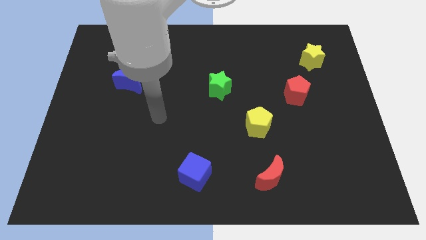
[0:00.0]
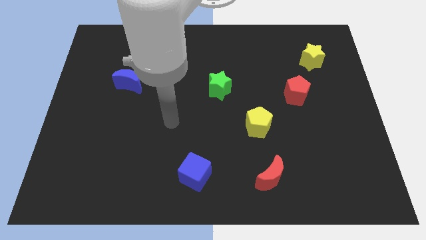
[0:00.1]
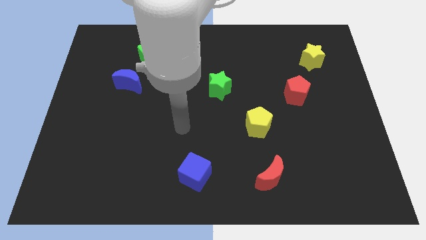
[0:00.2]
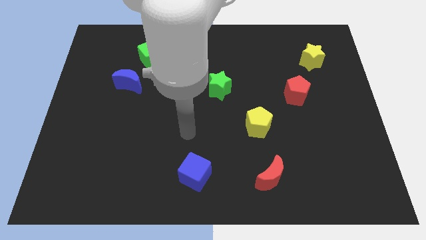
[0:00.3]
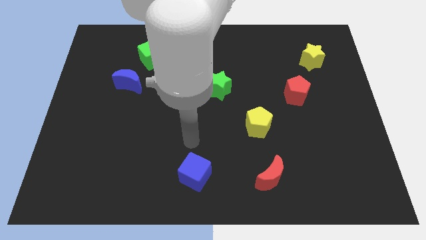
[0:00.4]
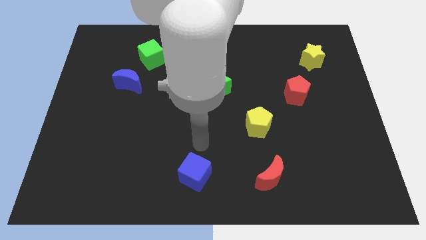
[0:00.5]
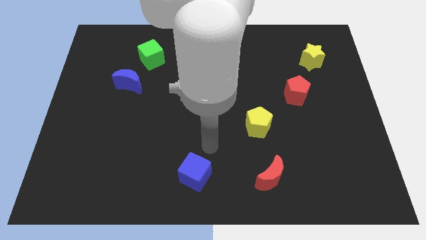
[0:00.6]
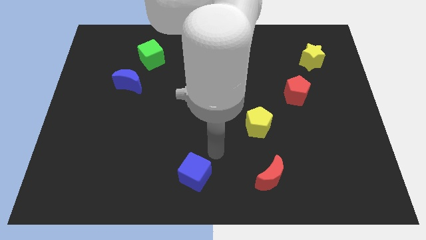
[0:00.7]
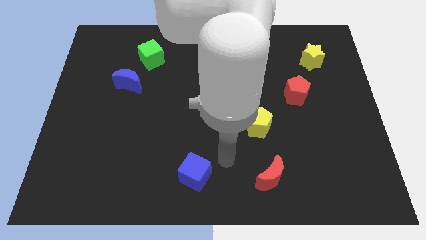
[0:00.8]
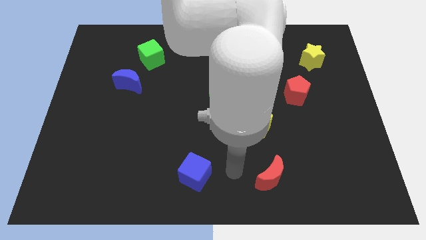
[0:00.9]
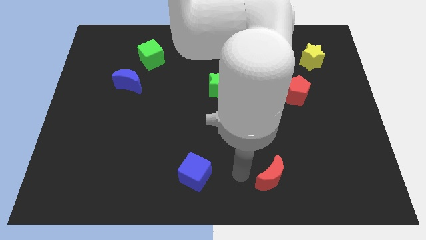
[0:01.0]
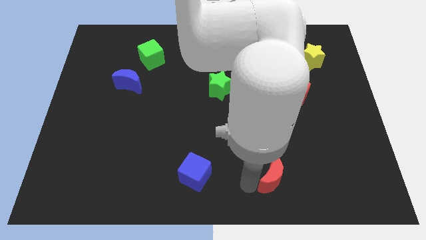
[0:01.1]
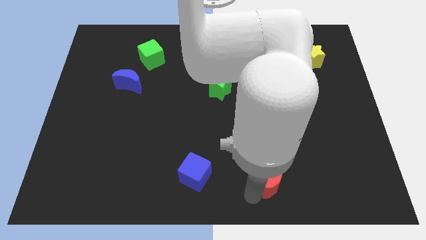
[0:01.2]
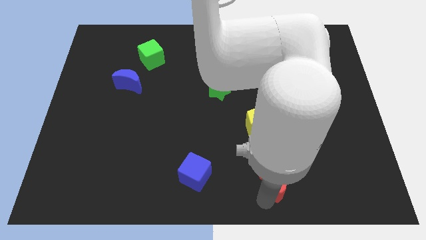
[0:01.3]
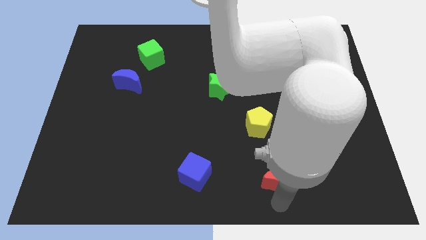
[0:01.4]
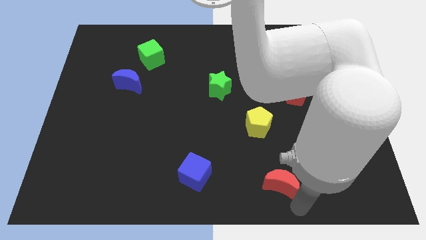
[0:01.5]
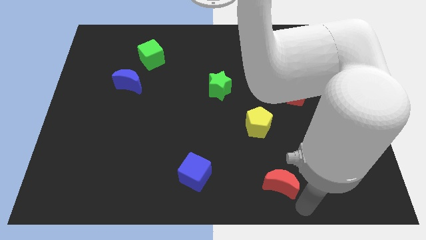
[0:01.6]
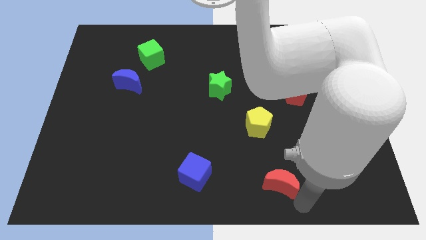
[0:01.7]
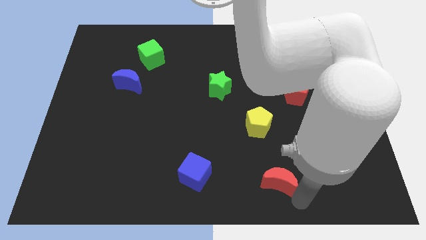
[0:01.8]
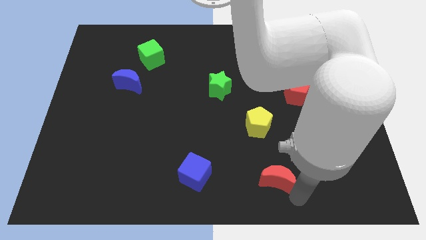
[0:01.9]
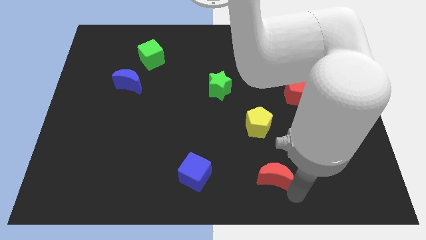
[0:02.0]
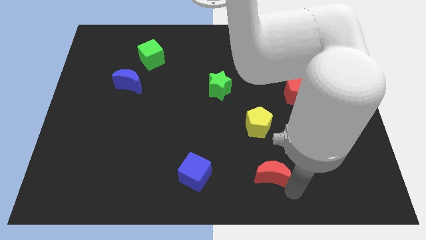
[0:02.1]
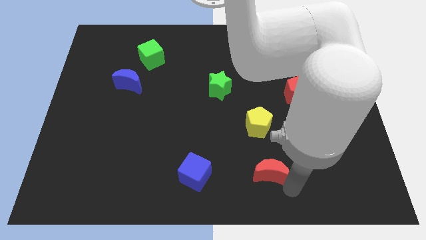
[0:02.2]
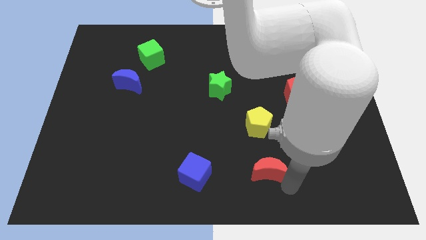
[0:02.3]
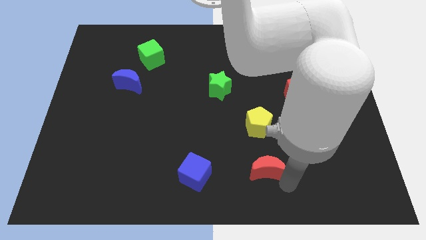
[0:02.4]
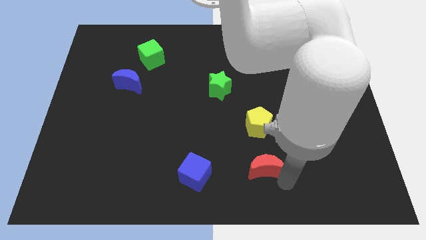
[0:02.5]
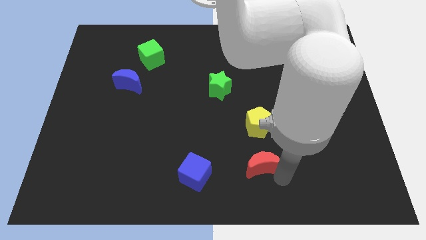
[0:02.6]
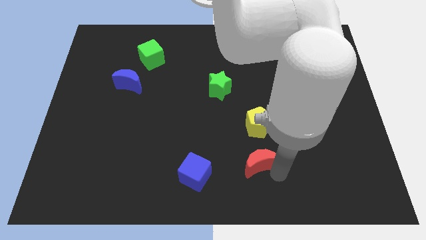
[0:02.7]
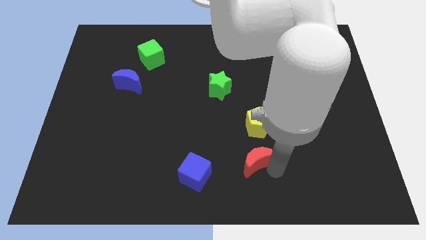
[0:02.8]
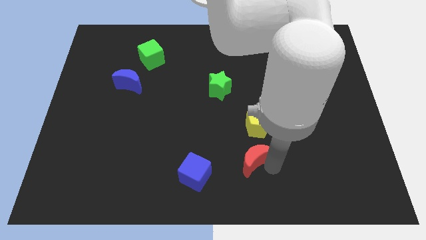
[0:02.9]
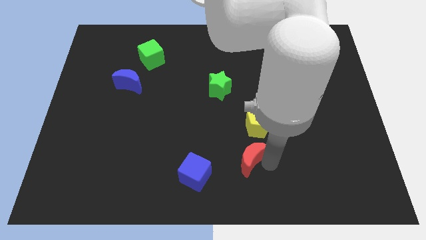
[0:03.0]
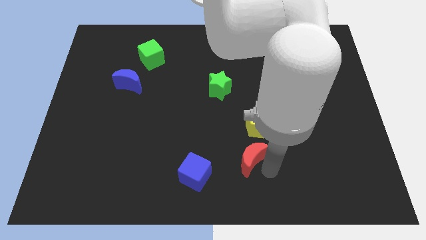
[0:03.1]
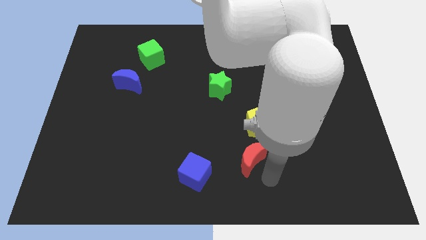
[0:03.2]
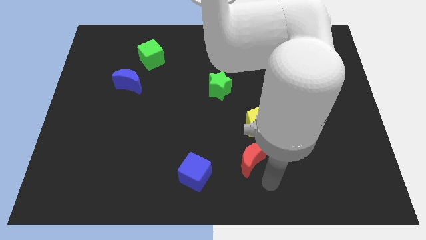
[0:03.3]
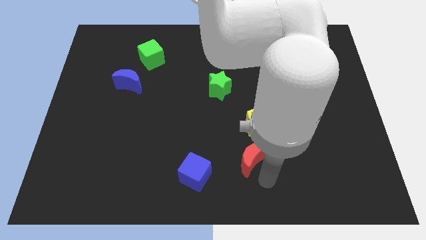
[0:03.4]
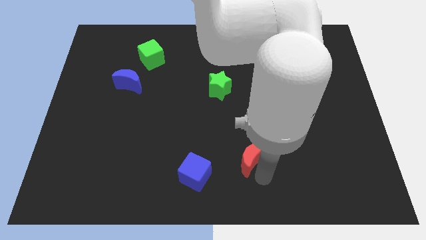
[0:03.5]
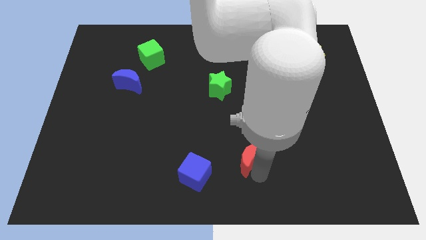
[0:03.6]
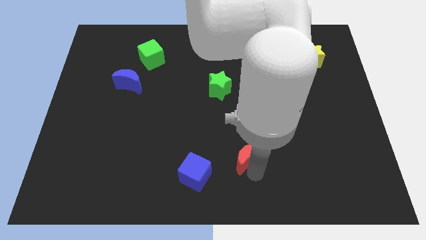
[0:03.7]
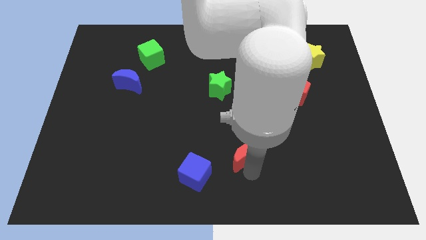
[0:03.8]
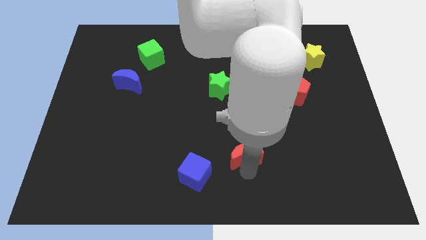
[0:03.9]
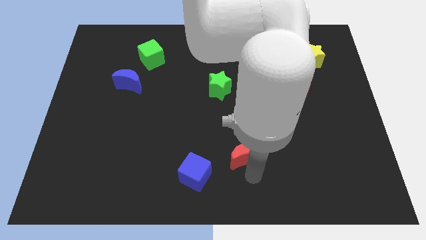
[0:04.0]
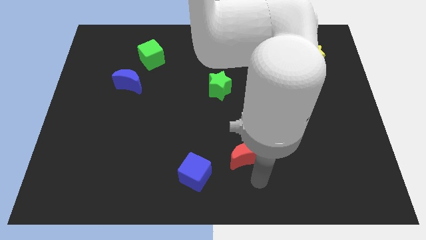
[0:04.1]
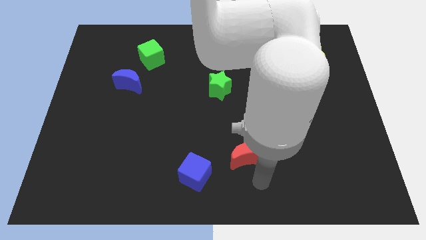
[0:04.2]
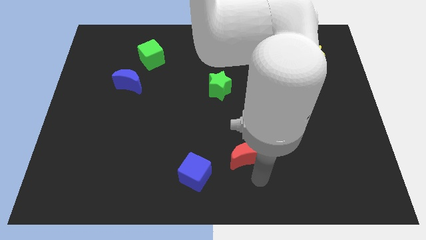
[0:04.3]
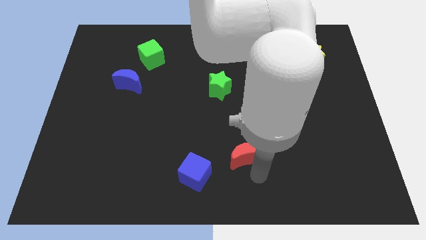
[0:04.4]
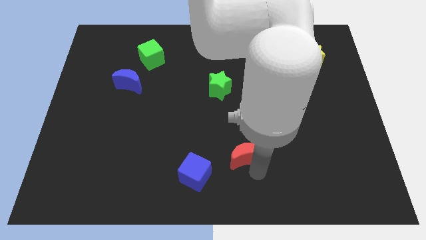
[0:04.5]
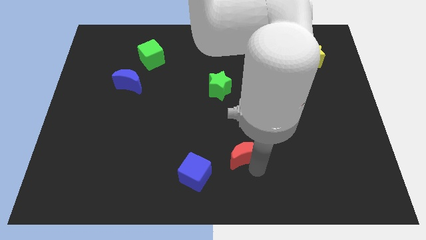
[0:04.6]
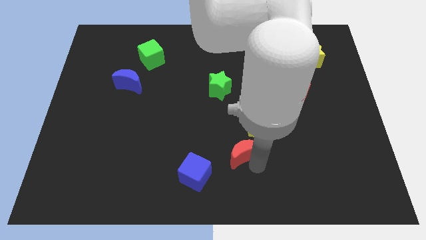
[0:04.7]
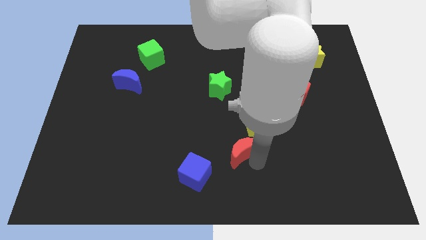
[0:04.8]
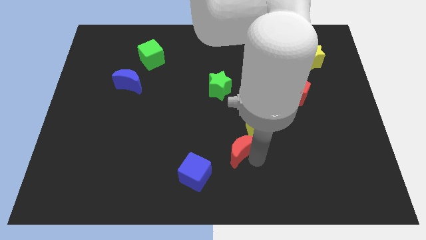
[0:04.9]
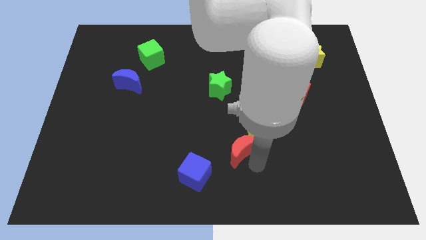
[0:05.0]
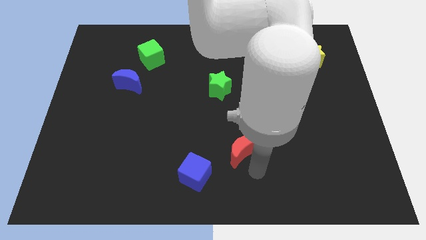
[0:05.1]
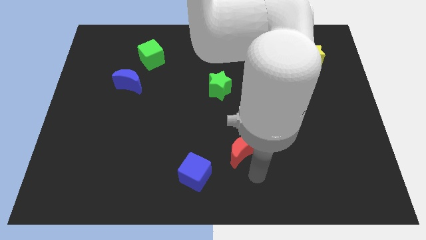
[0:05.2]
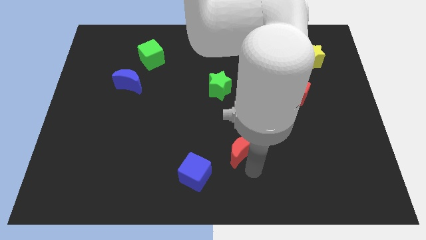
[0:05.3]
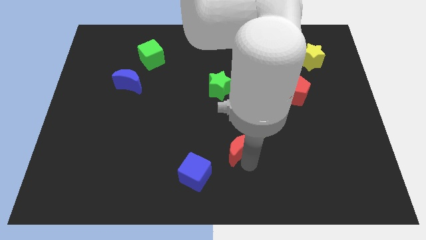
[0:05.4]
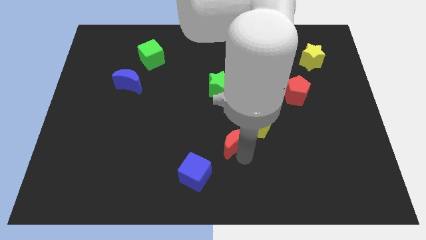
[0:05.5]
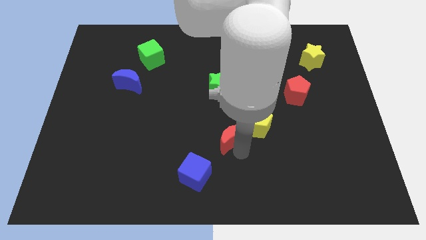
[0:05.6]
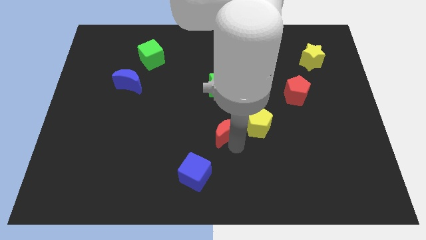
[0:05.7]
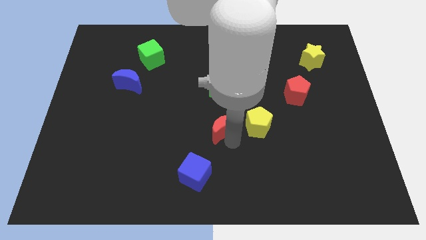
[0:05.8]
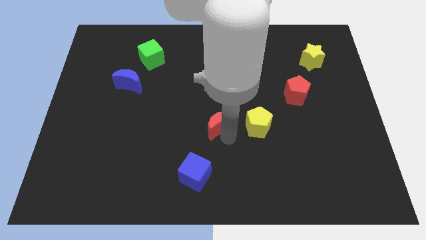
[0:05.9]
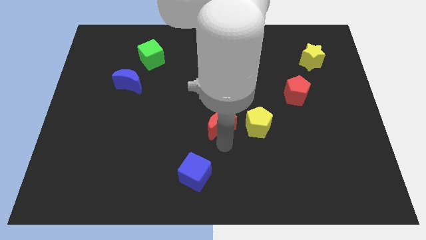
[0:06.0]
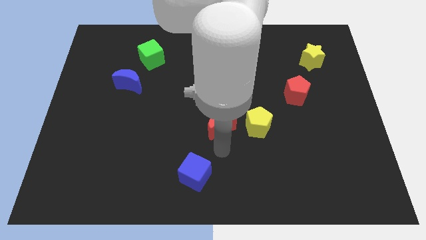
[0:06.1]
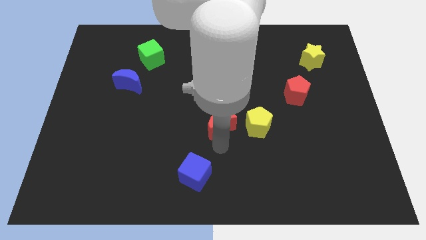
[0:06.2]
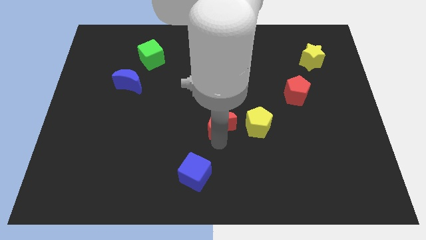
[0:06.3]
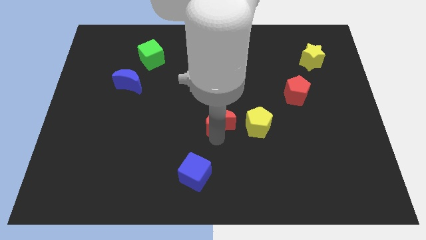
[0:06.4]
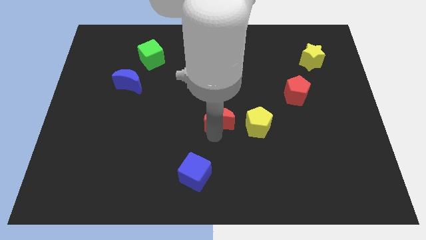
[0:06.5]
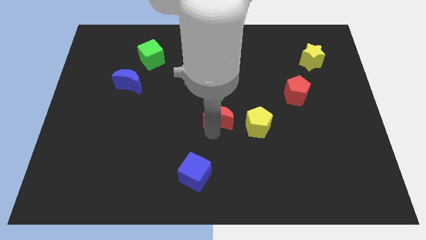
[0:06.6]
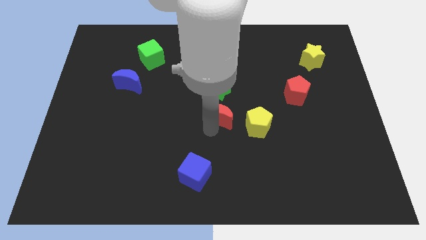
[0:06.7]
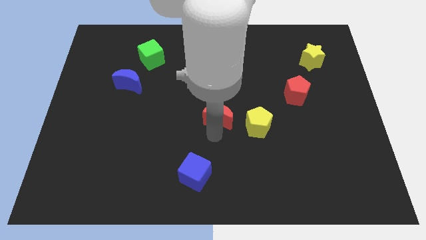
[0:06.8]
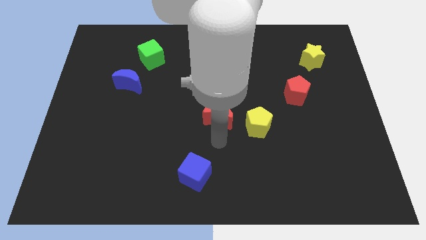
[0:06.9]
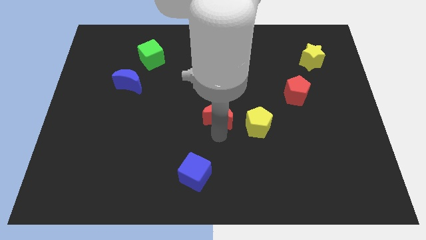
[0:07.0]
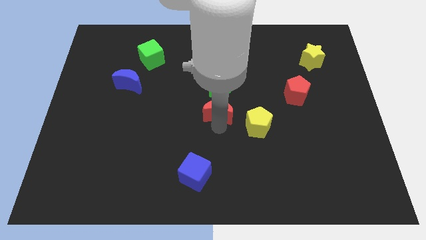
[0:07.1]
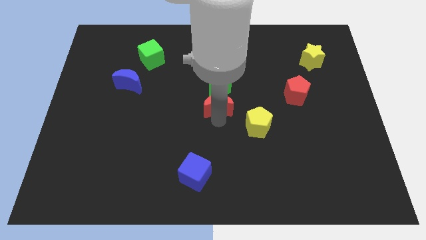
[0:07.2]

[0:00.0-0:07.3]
move the red moon to the green star

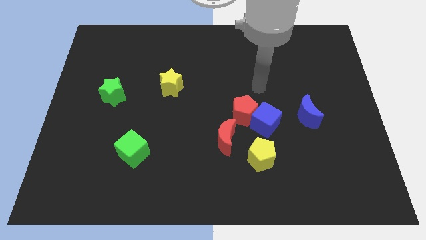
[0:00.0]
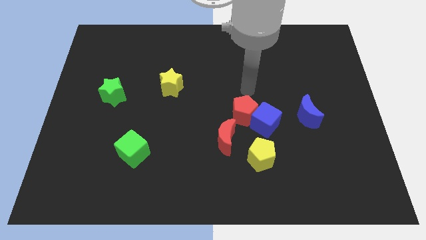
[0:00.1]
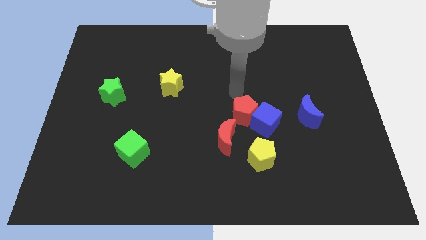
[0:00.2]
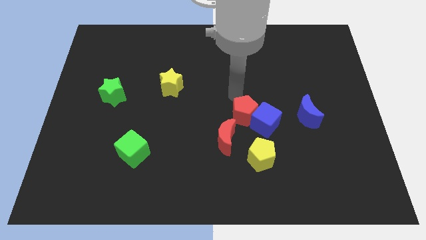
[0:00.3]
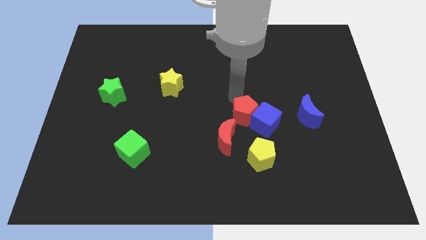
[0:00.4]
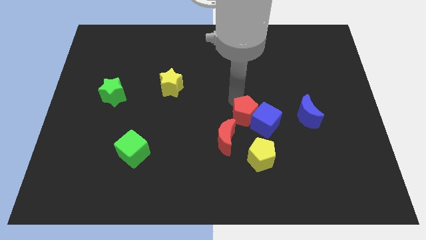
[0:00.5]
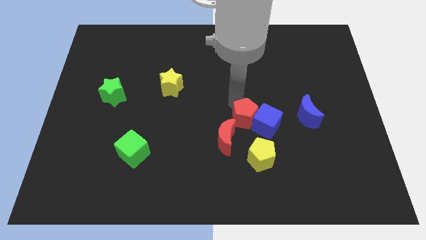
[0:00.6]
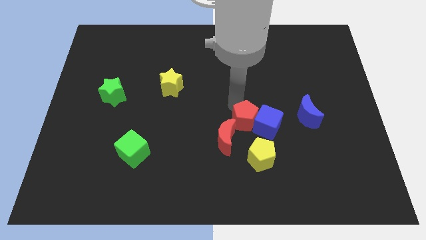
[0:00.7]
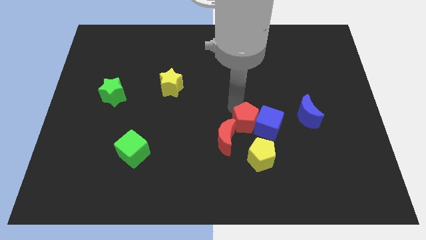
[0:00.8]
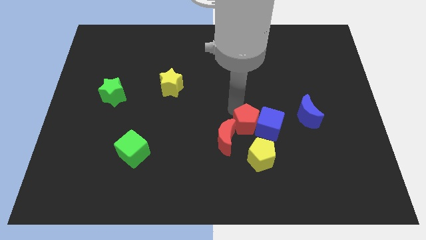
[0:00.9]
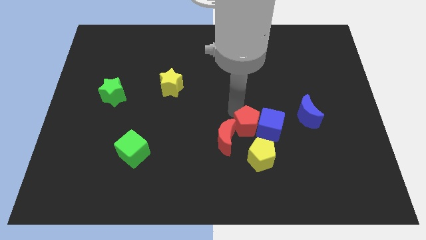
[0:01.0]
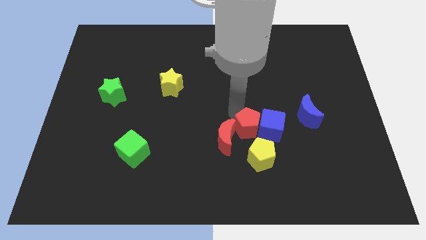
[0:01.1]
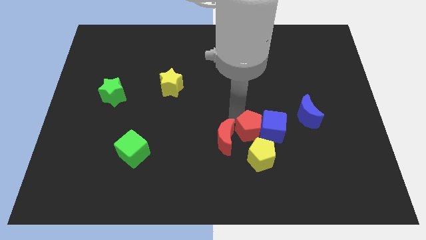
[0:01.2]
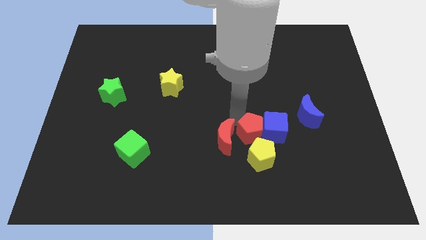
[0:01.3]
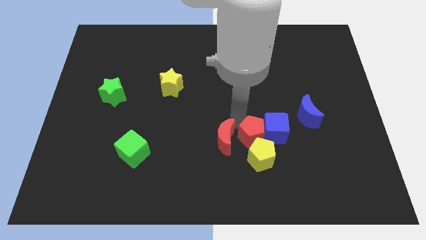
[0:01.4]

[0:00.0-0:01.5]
move the red pentagon next to the yellow pentagon
